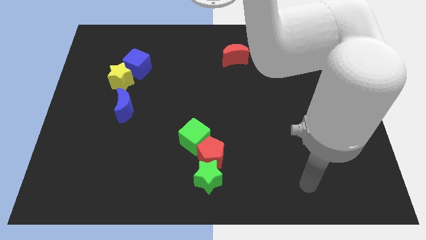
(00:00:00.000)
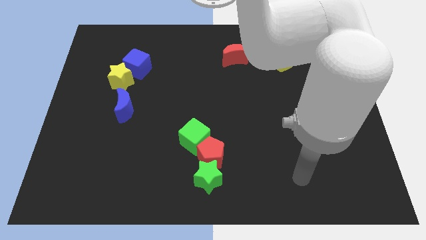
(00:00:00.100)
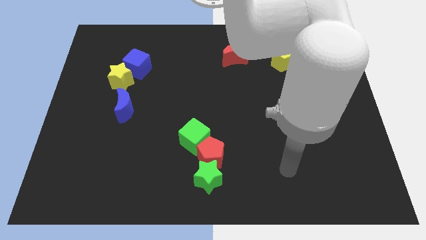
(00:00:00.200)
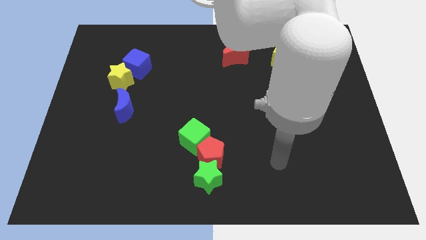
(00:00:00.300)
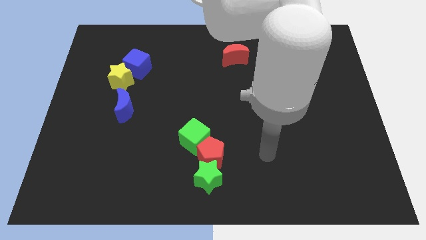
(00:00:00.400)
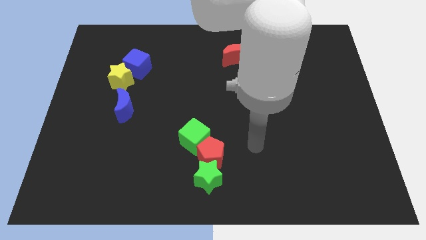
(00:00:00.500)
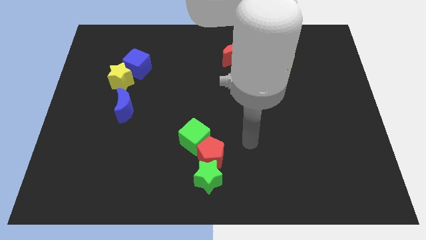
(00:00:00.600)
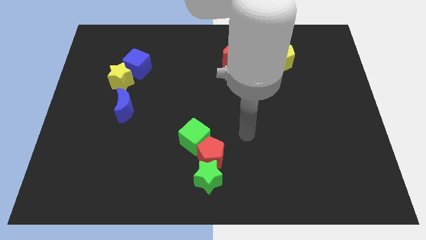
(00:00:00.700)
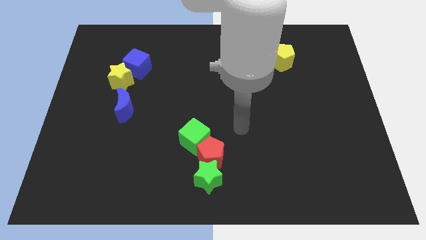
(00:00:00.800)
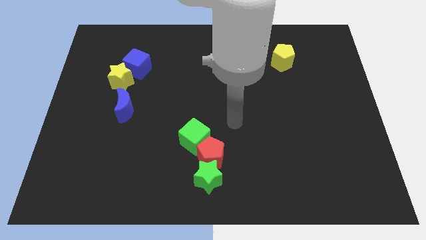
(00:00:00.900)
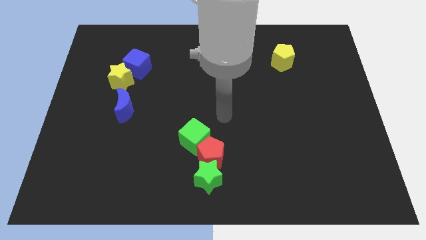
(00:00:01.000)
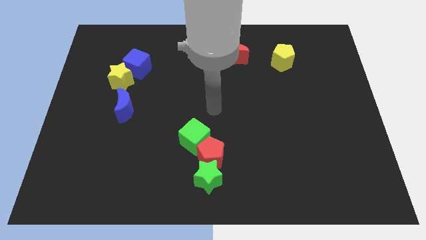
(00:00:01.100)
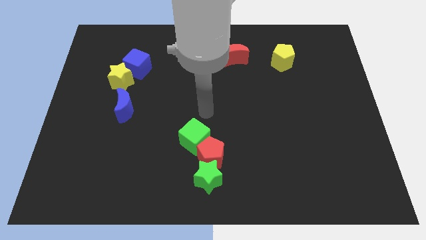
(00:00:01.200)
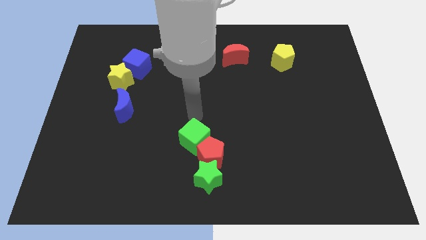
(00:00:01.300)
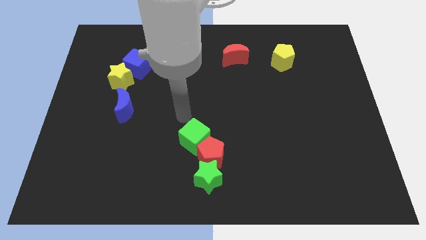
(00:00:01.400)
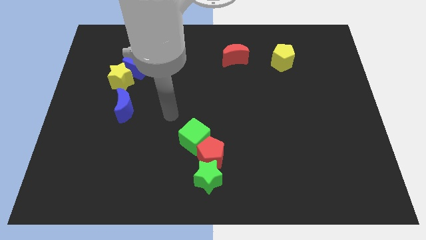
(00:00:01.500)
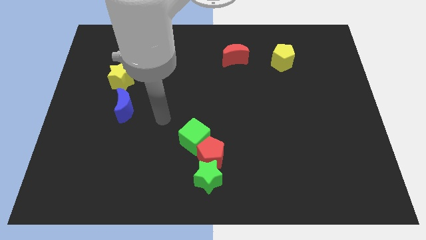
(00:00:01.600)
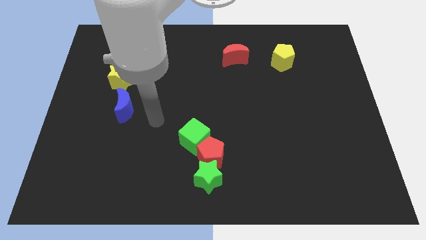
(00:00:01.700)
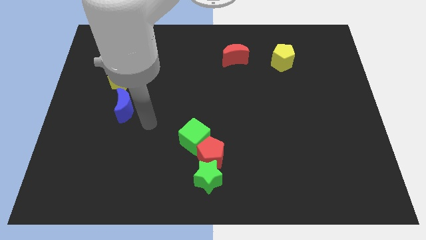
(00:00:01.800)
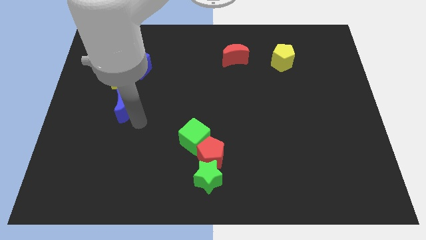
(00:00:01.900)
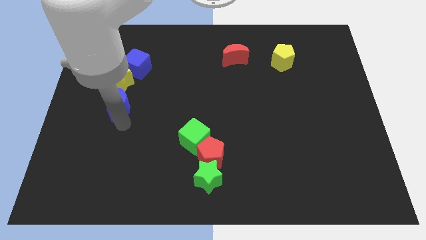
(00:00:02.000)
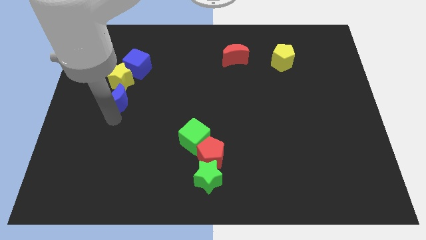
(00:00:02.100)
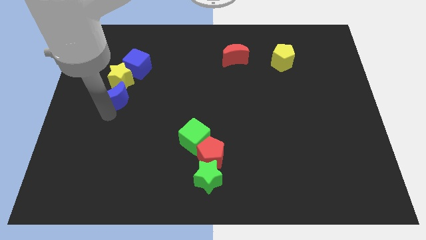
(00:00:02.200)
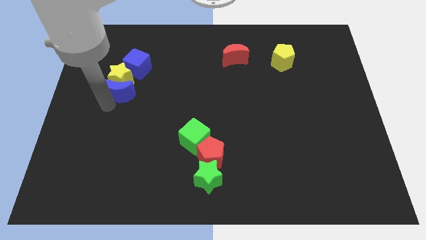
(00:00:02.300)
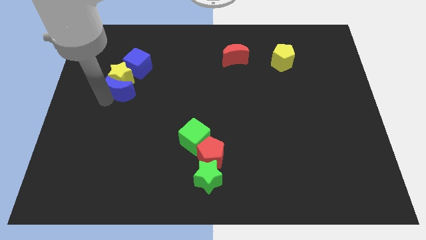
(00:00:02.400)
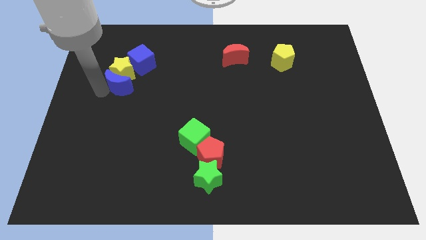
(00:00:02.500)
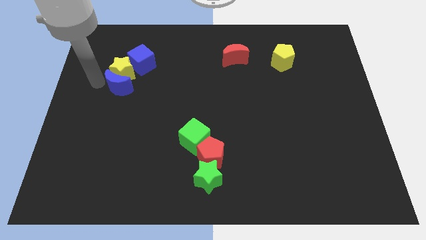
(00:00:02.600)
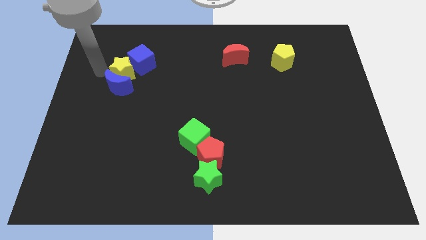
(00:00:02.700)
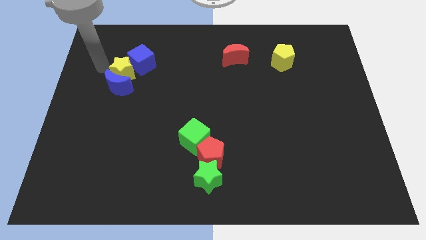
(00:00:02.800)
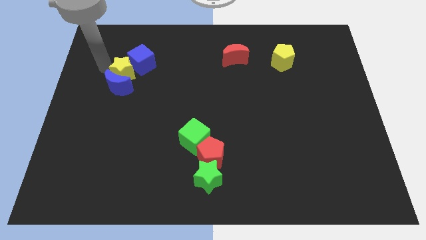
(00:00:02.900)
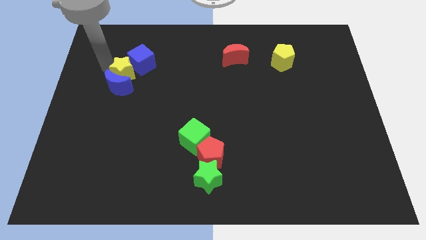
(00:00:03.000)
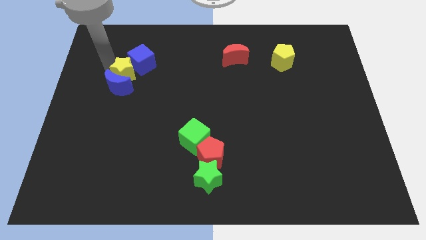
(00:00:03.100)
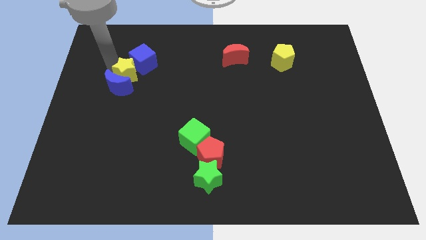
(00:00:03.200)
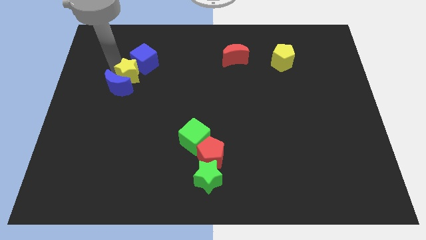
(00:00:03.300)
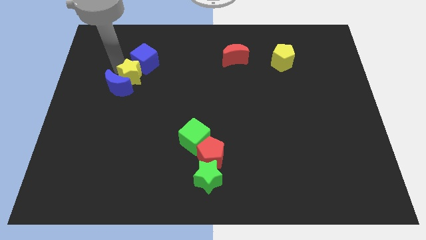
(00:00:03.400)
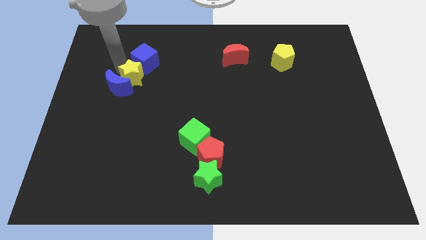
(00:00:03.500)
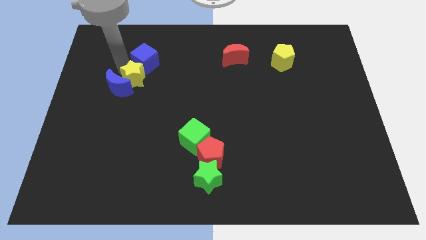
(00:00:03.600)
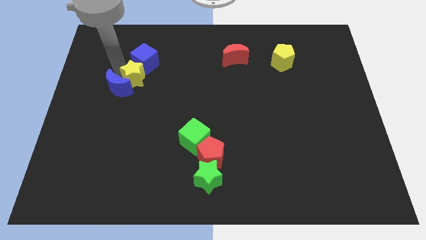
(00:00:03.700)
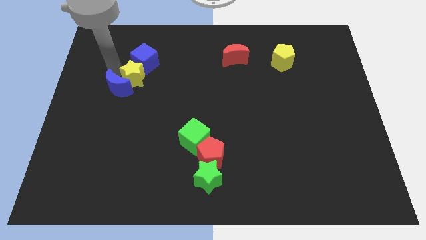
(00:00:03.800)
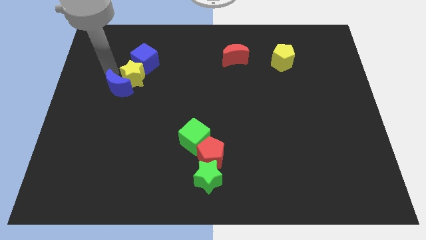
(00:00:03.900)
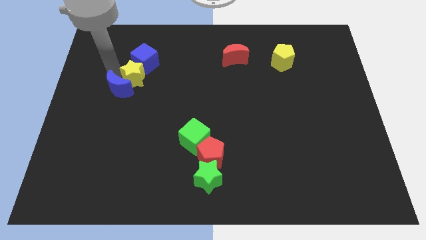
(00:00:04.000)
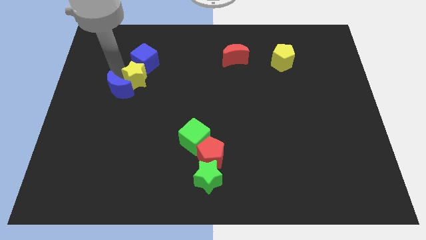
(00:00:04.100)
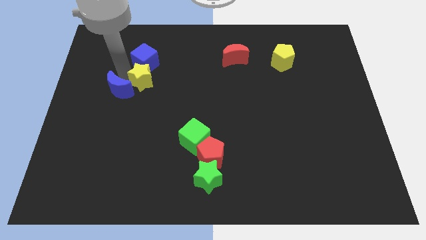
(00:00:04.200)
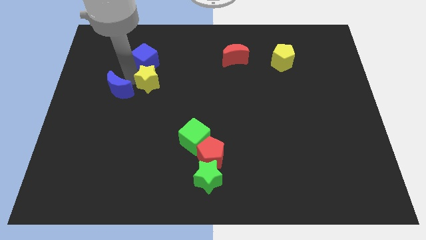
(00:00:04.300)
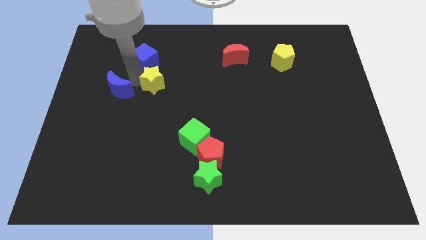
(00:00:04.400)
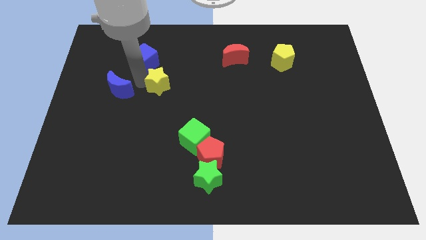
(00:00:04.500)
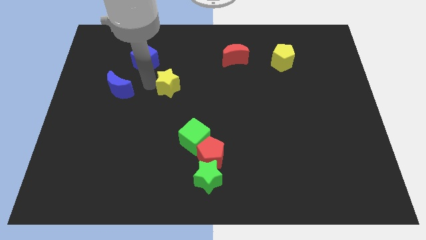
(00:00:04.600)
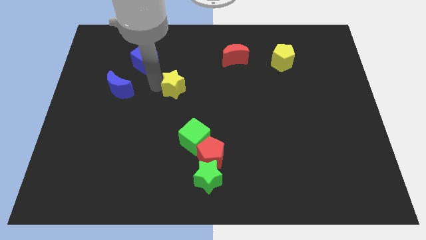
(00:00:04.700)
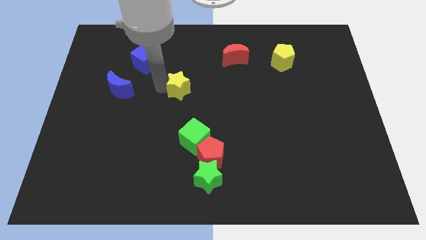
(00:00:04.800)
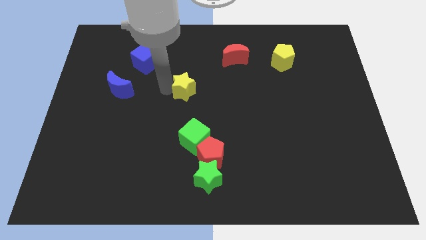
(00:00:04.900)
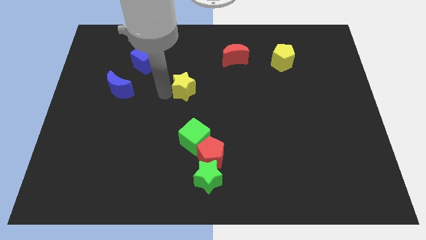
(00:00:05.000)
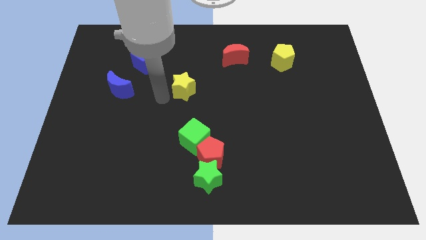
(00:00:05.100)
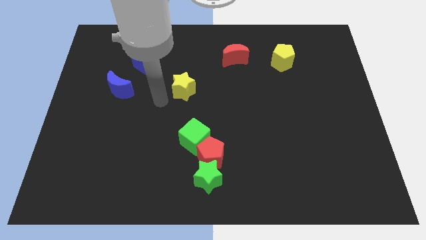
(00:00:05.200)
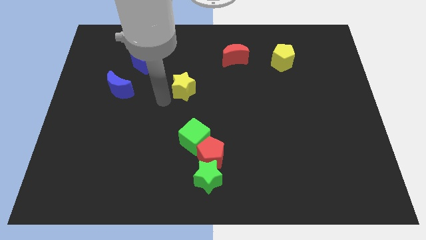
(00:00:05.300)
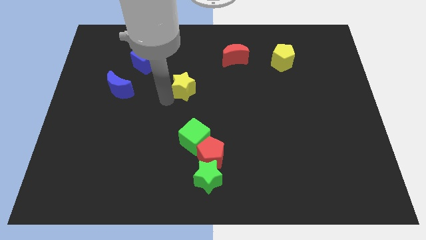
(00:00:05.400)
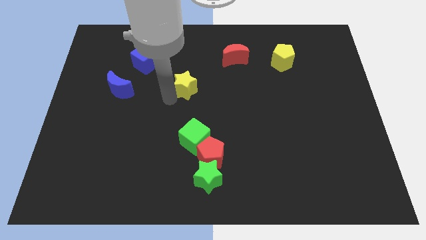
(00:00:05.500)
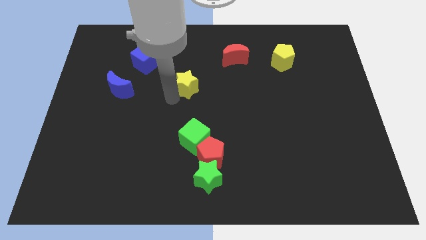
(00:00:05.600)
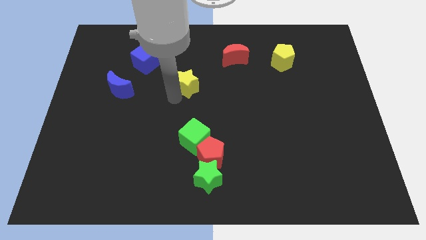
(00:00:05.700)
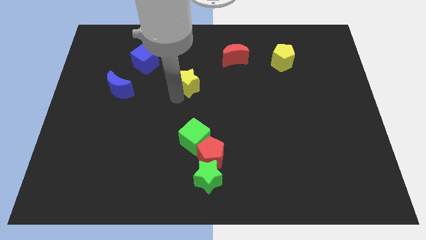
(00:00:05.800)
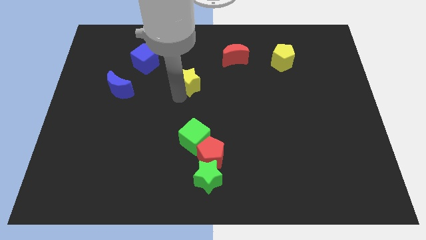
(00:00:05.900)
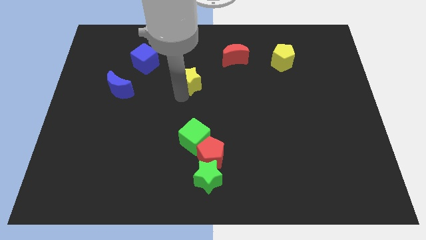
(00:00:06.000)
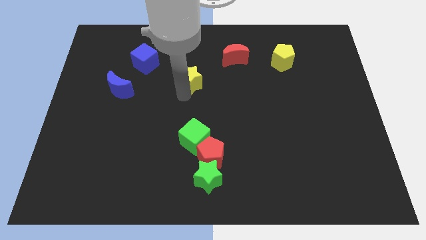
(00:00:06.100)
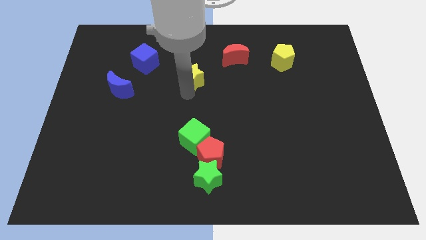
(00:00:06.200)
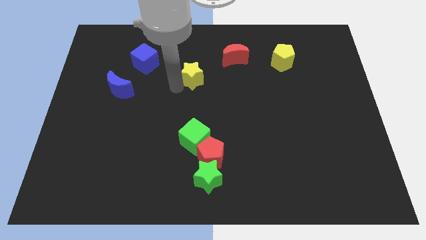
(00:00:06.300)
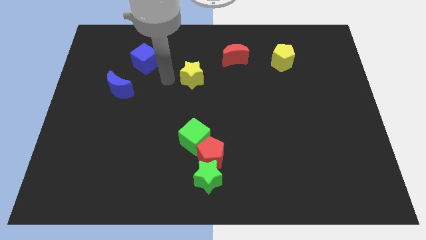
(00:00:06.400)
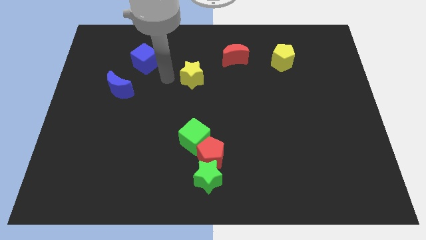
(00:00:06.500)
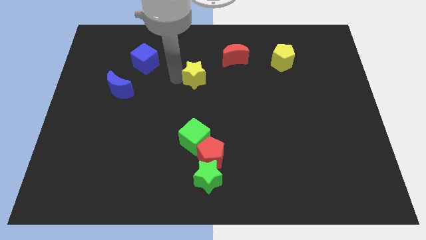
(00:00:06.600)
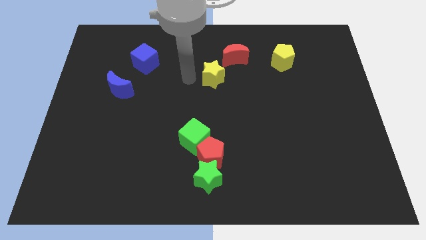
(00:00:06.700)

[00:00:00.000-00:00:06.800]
slide the yellow star to the right

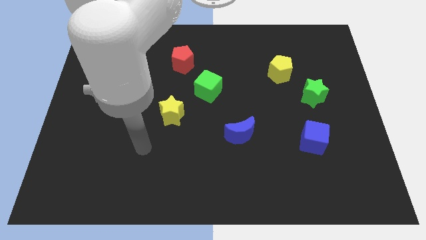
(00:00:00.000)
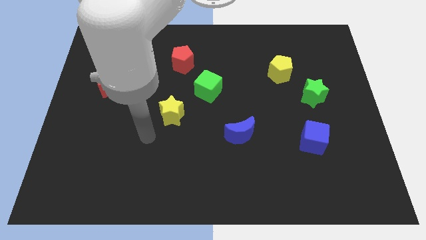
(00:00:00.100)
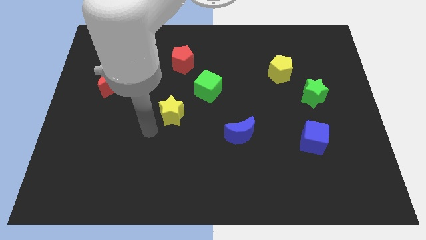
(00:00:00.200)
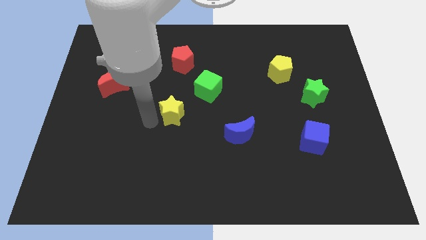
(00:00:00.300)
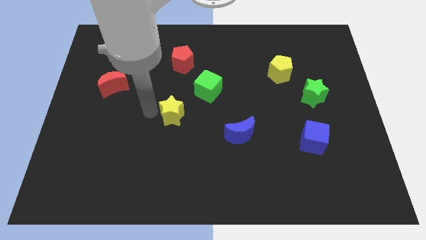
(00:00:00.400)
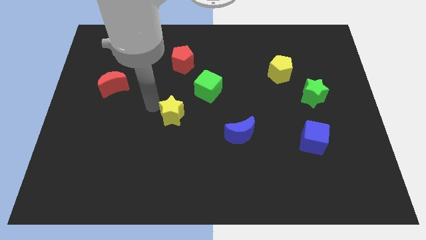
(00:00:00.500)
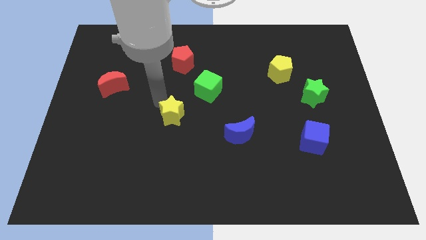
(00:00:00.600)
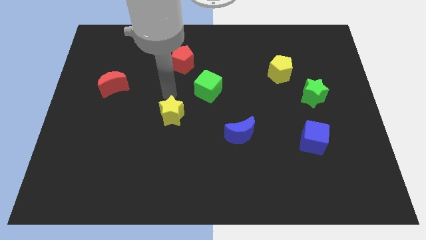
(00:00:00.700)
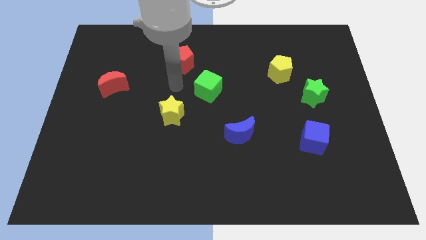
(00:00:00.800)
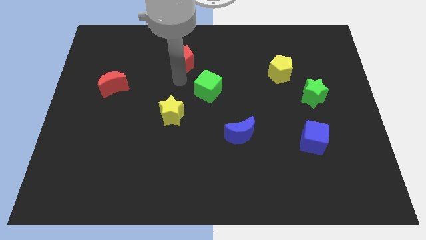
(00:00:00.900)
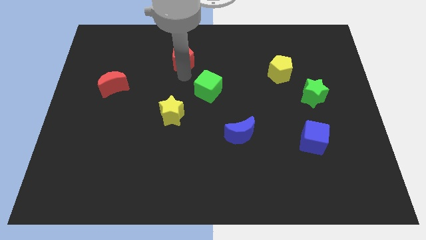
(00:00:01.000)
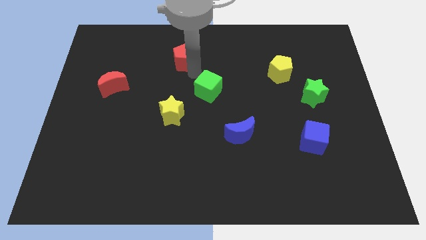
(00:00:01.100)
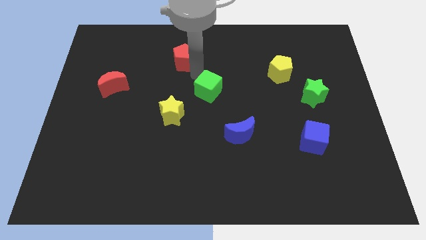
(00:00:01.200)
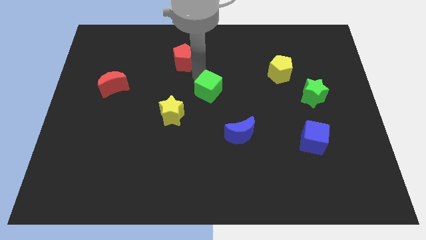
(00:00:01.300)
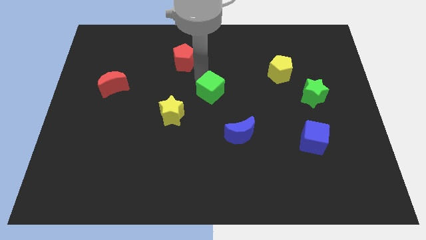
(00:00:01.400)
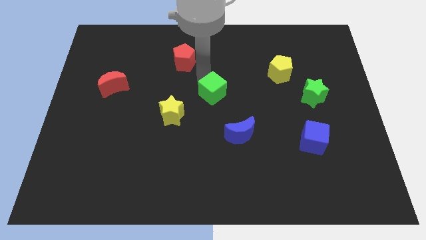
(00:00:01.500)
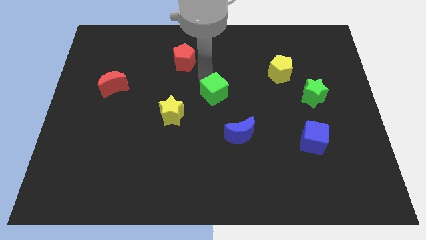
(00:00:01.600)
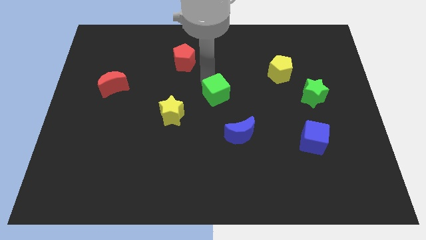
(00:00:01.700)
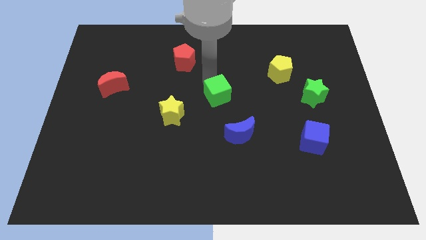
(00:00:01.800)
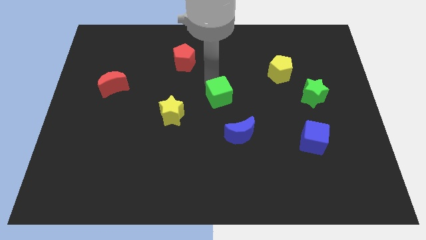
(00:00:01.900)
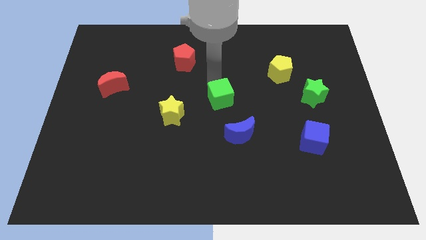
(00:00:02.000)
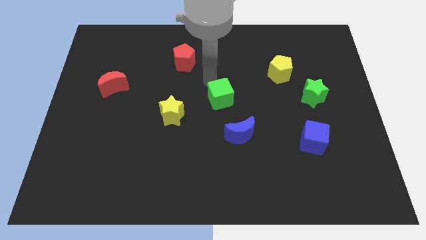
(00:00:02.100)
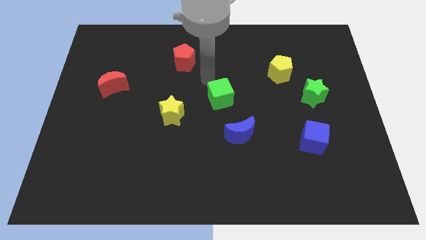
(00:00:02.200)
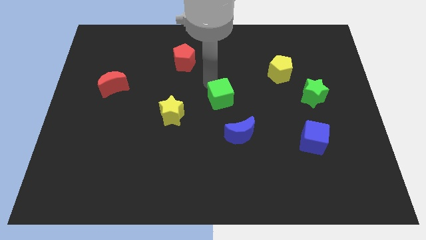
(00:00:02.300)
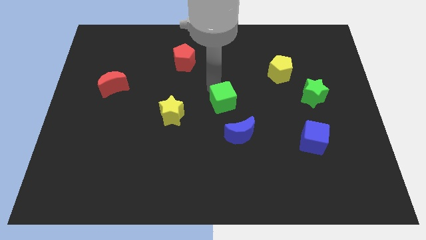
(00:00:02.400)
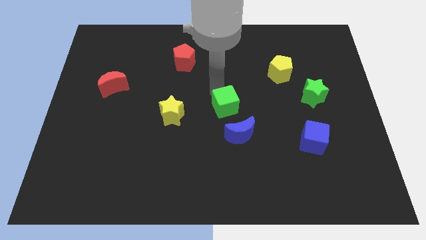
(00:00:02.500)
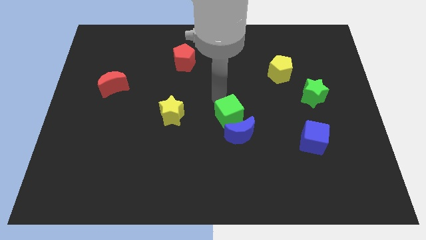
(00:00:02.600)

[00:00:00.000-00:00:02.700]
push the green cube a little downwards and right
